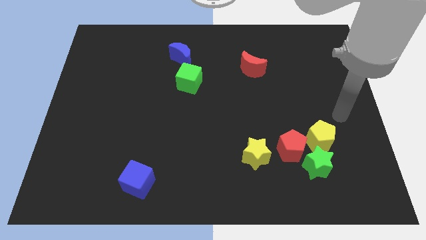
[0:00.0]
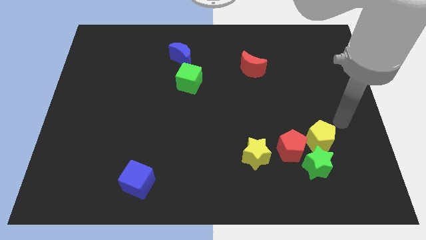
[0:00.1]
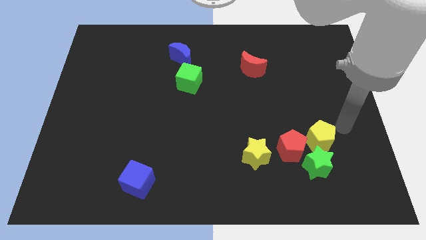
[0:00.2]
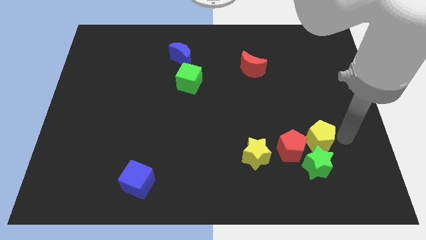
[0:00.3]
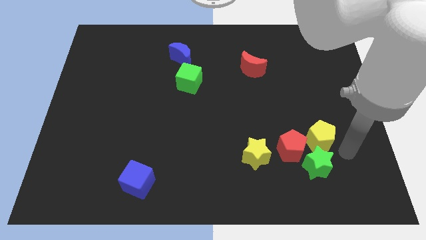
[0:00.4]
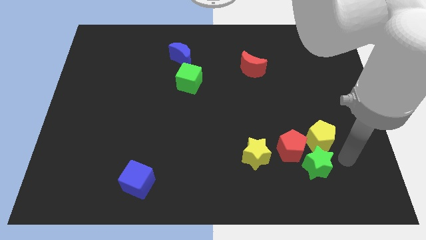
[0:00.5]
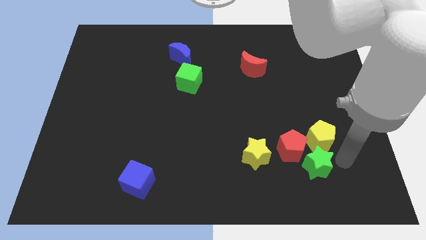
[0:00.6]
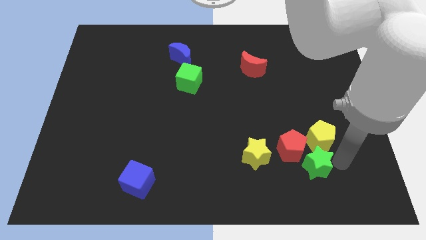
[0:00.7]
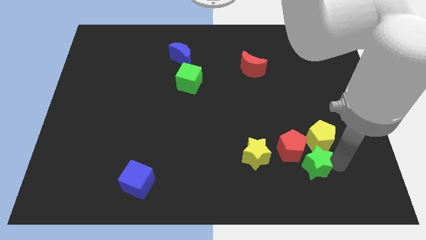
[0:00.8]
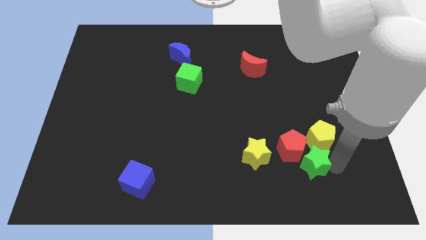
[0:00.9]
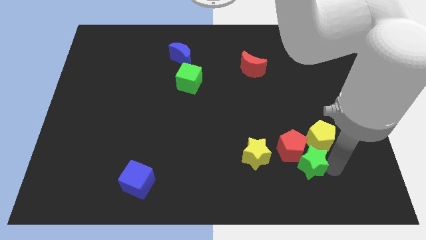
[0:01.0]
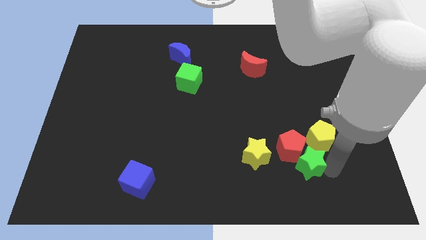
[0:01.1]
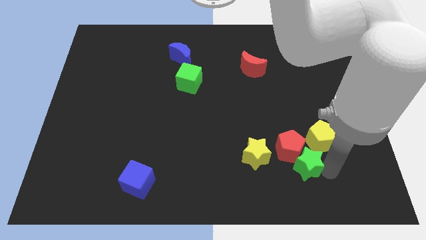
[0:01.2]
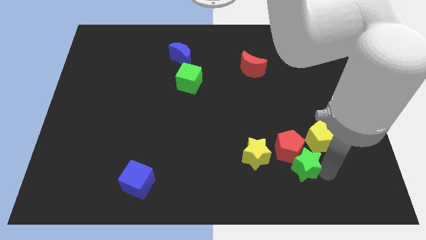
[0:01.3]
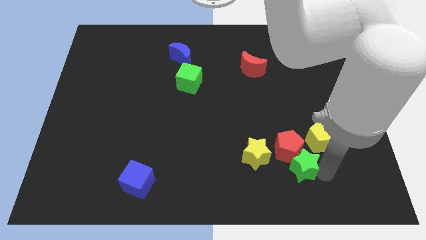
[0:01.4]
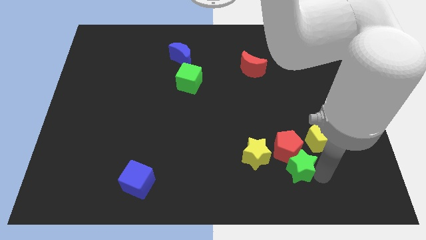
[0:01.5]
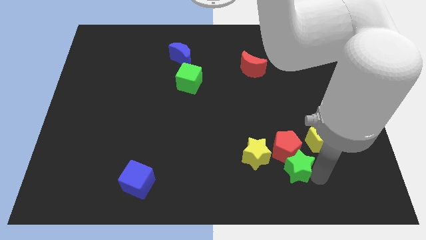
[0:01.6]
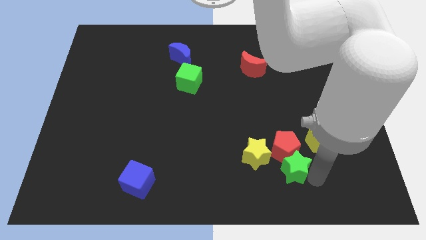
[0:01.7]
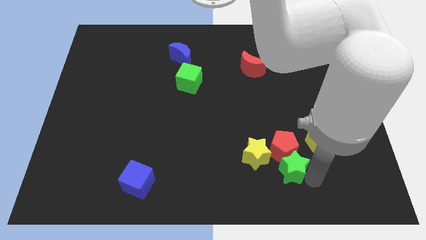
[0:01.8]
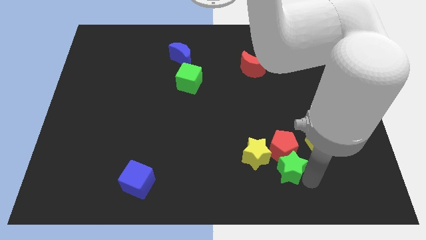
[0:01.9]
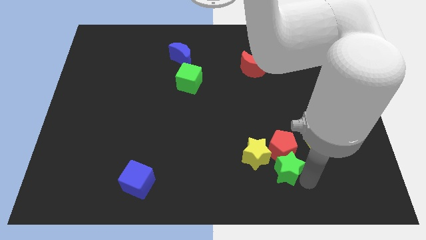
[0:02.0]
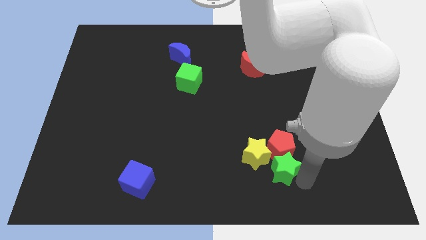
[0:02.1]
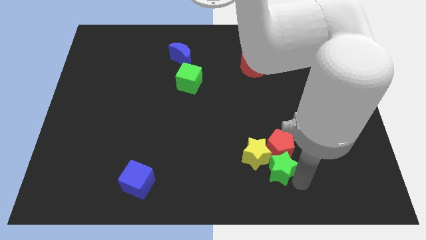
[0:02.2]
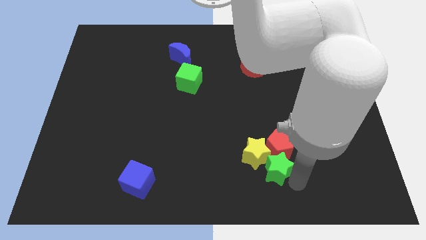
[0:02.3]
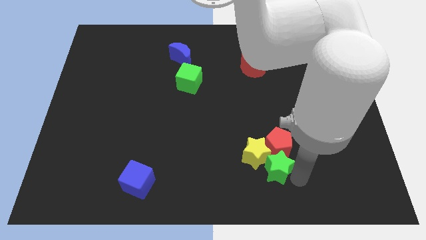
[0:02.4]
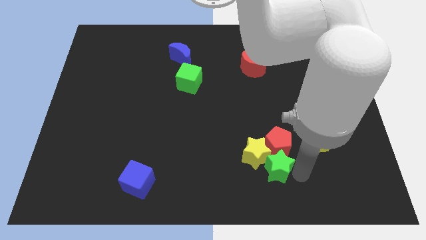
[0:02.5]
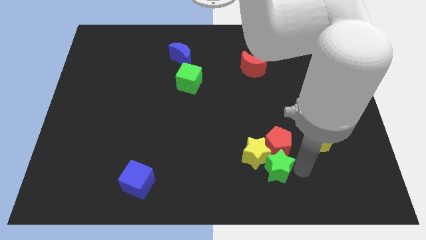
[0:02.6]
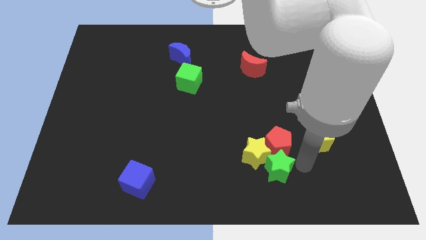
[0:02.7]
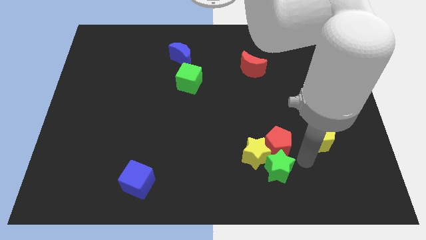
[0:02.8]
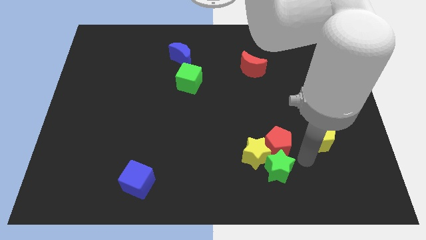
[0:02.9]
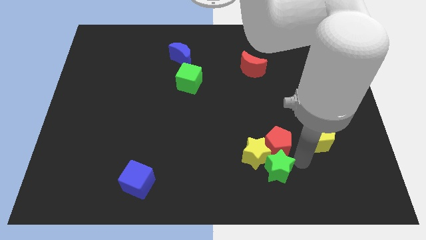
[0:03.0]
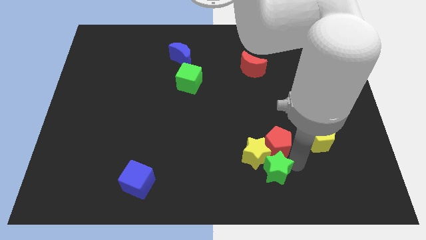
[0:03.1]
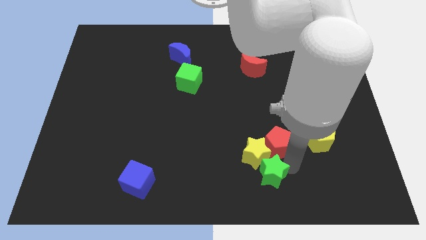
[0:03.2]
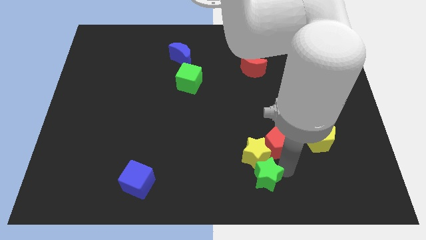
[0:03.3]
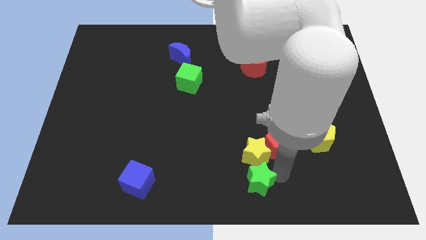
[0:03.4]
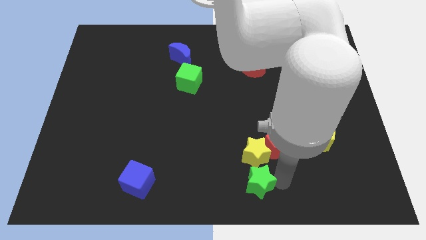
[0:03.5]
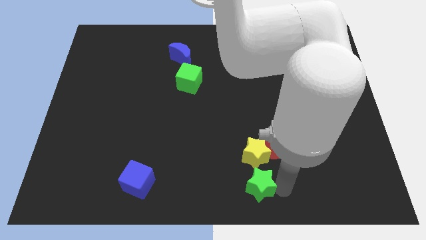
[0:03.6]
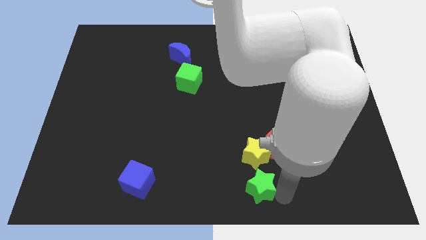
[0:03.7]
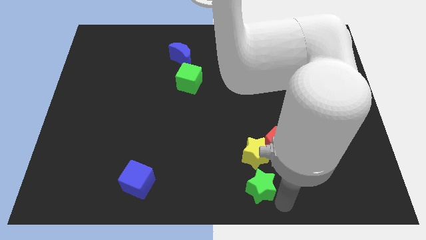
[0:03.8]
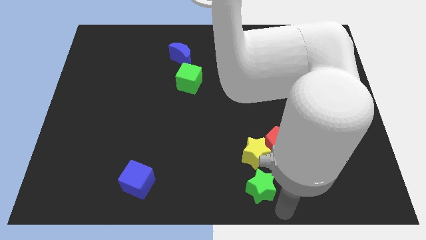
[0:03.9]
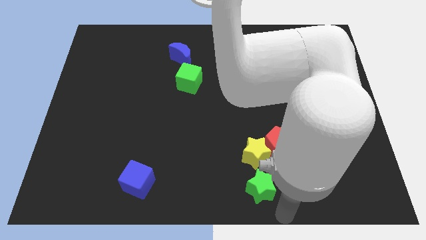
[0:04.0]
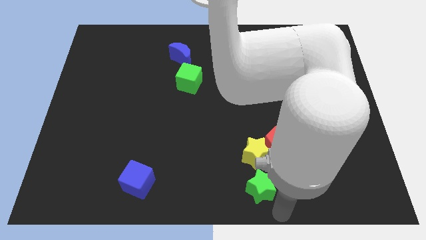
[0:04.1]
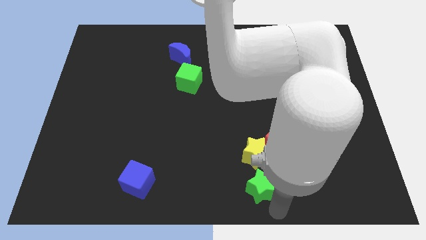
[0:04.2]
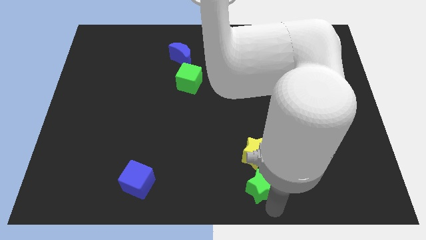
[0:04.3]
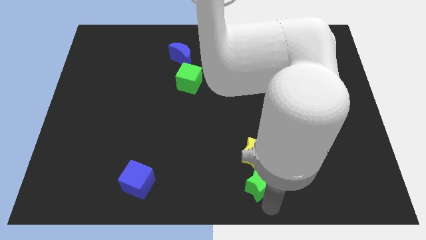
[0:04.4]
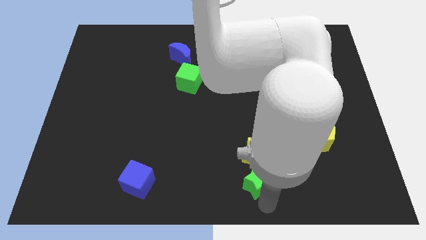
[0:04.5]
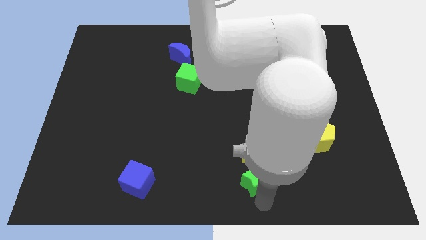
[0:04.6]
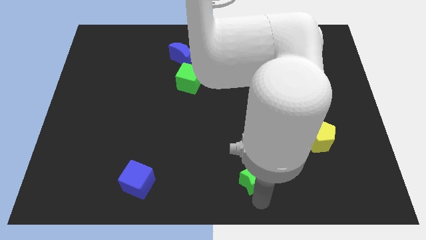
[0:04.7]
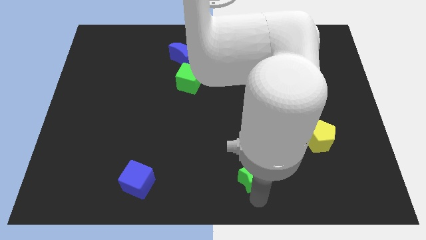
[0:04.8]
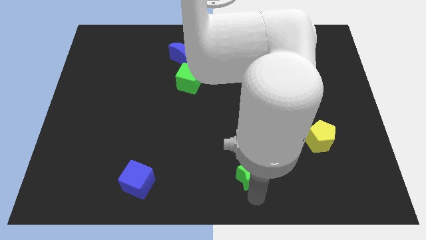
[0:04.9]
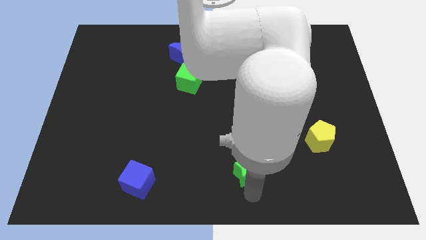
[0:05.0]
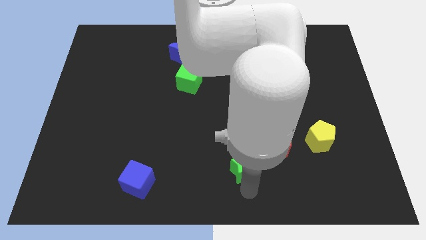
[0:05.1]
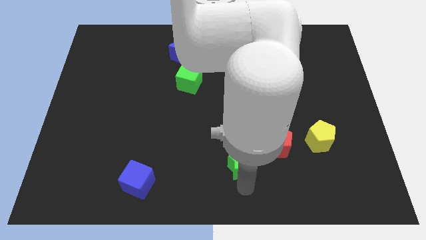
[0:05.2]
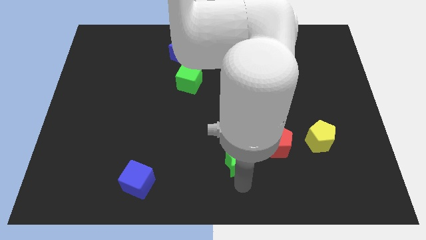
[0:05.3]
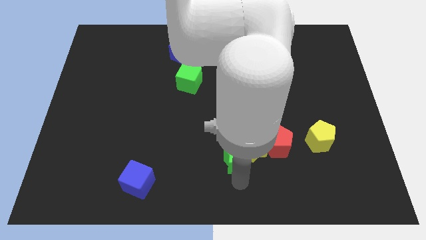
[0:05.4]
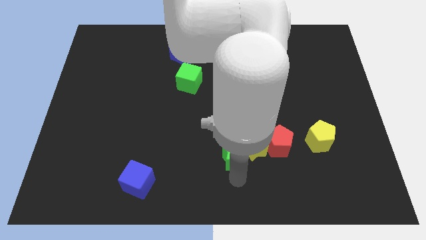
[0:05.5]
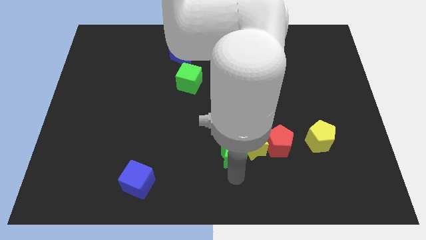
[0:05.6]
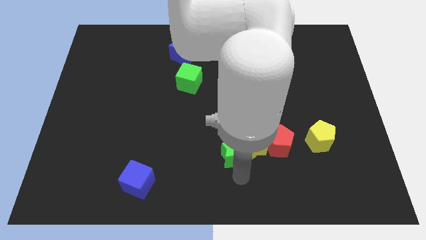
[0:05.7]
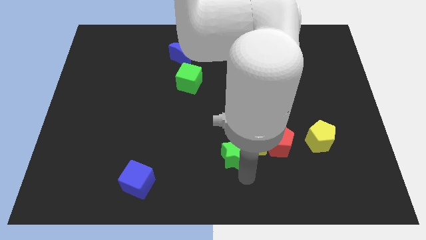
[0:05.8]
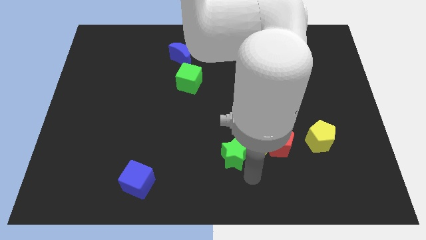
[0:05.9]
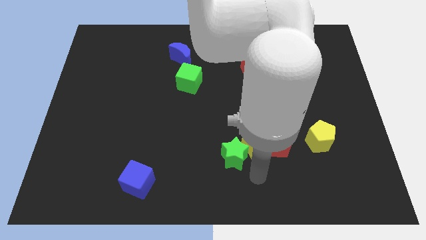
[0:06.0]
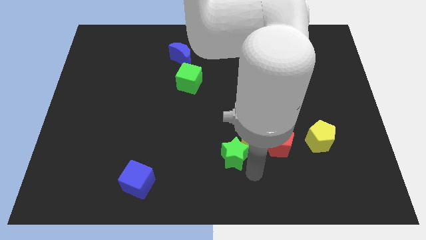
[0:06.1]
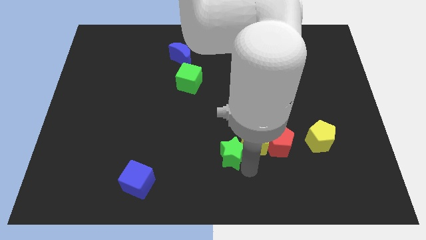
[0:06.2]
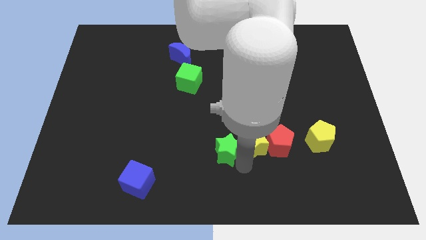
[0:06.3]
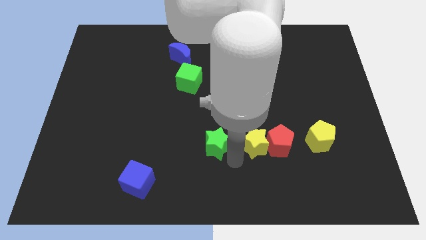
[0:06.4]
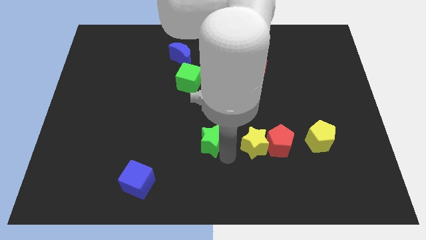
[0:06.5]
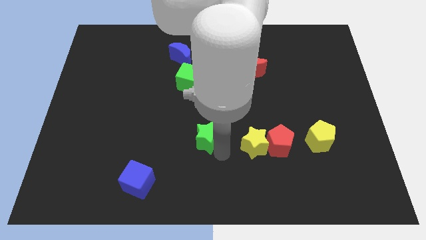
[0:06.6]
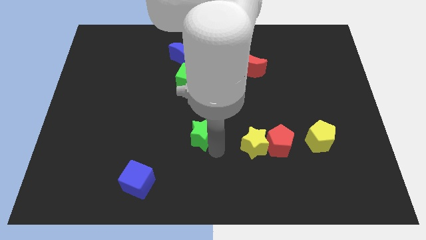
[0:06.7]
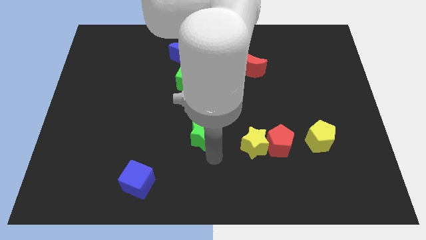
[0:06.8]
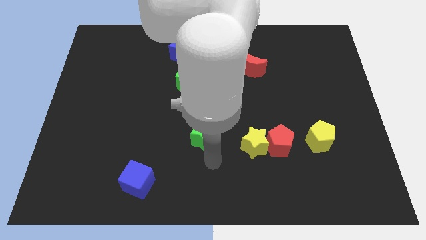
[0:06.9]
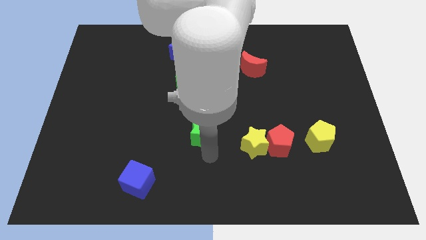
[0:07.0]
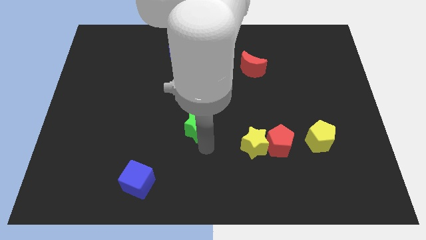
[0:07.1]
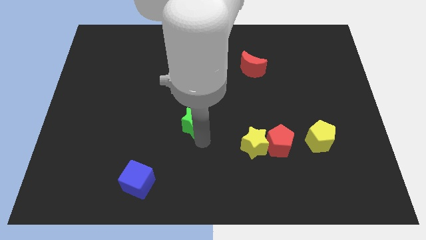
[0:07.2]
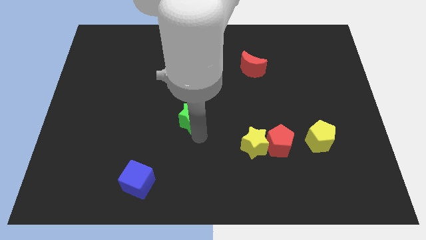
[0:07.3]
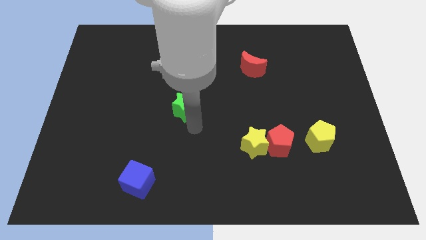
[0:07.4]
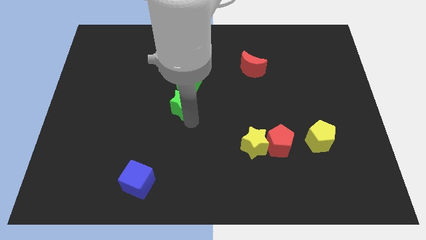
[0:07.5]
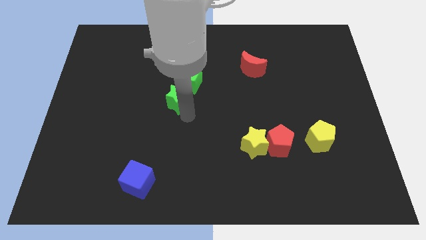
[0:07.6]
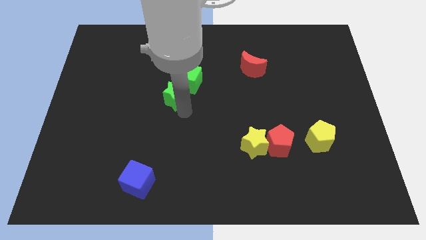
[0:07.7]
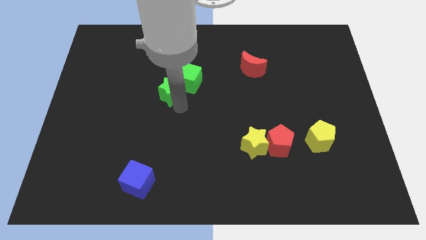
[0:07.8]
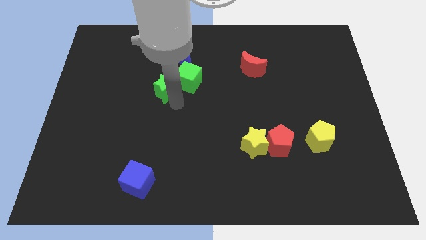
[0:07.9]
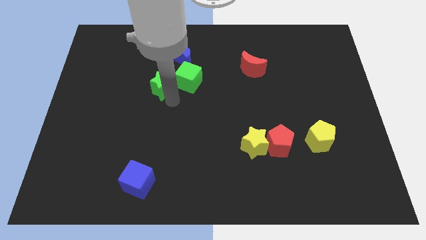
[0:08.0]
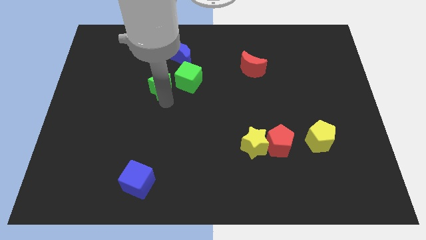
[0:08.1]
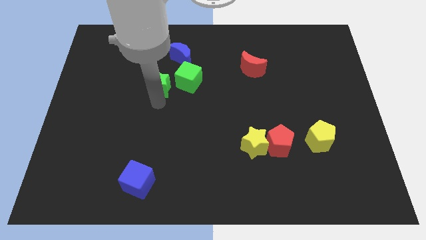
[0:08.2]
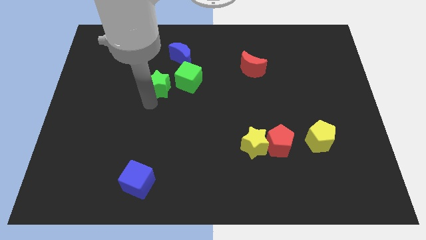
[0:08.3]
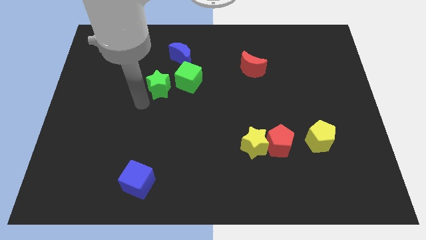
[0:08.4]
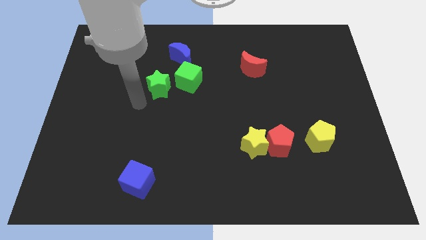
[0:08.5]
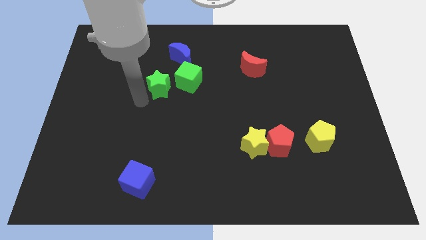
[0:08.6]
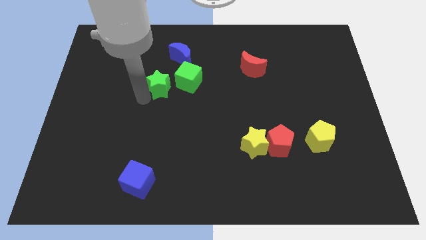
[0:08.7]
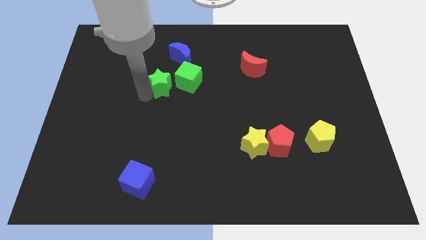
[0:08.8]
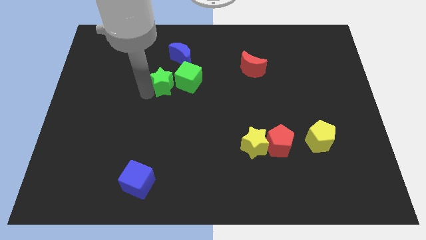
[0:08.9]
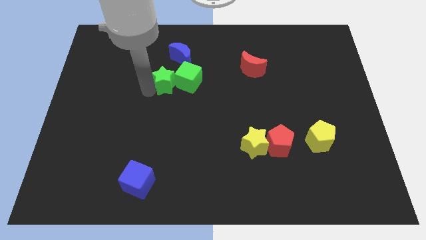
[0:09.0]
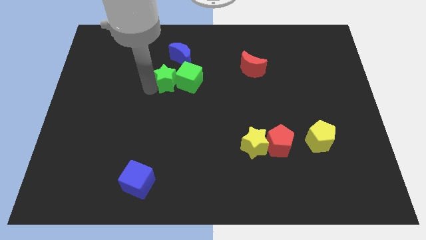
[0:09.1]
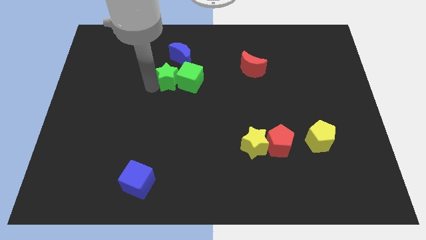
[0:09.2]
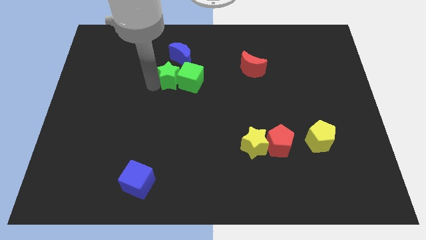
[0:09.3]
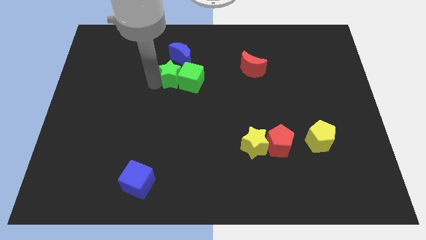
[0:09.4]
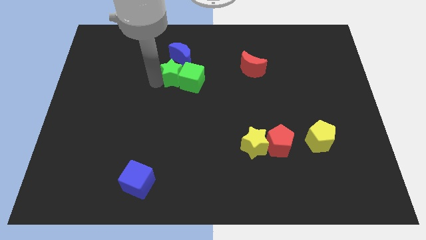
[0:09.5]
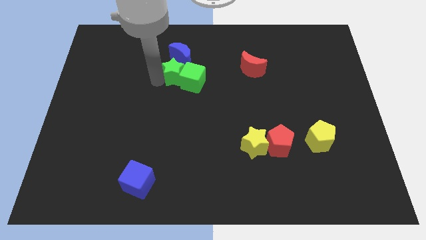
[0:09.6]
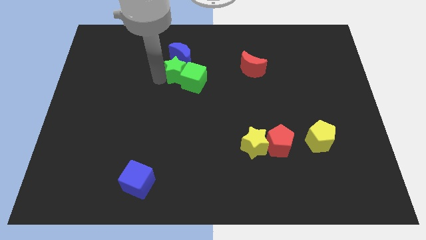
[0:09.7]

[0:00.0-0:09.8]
slide the green star close to the blue moon
